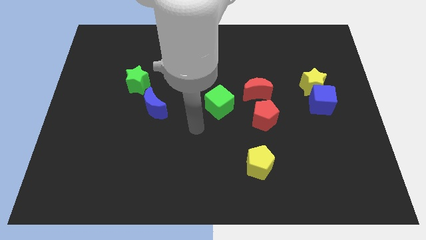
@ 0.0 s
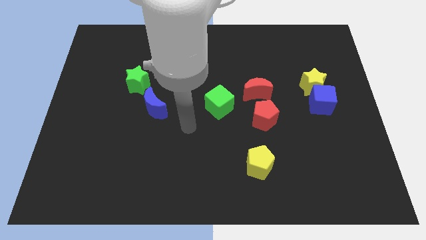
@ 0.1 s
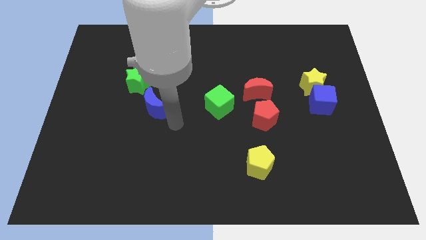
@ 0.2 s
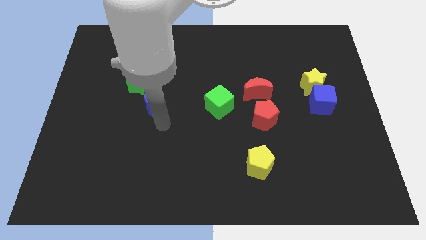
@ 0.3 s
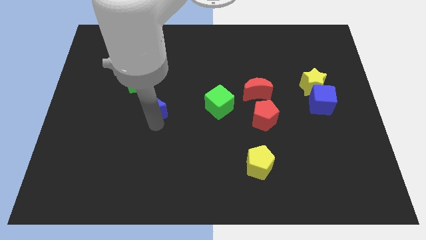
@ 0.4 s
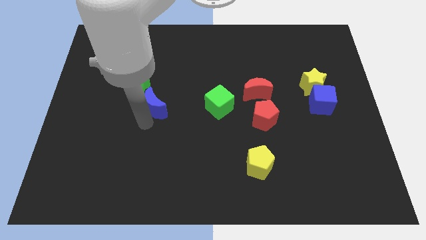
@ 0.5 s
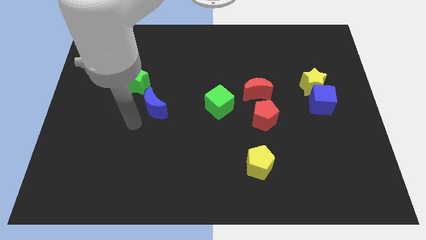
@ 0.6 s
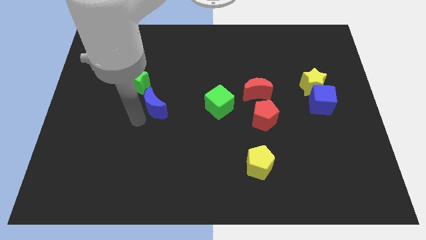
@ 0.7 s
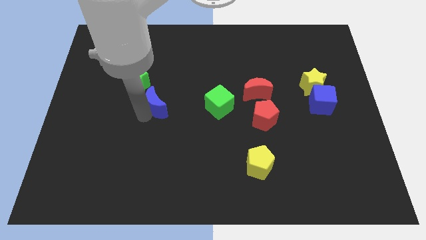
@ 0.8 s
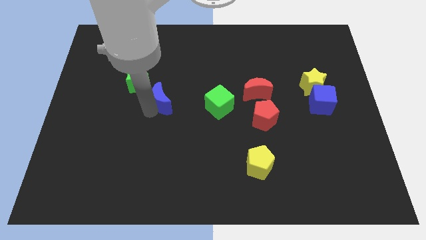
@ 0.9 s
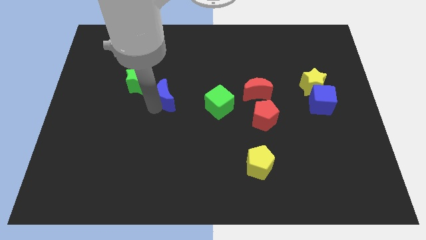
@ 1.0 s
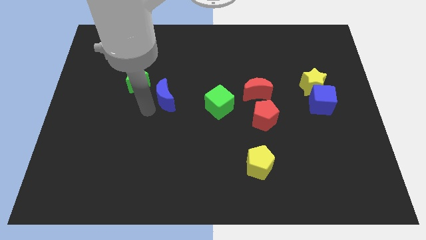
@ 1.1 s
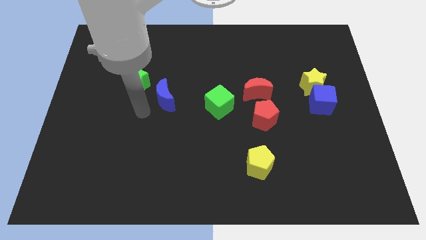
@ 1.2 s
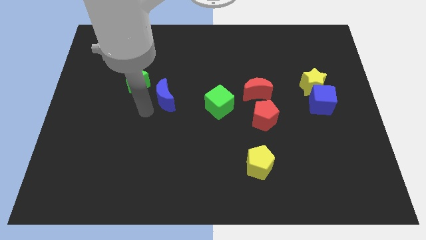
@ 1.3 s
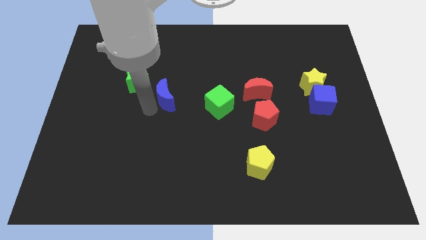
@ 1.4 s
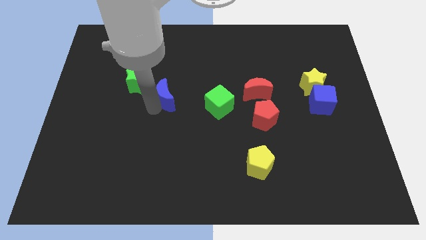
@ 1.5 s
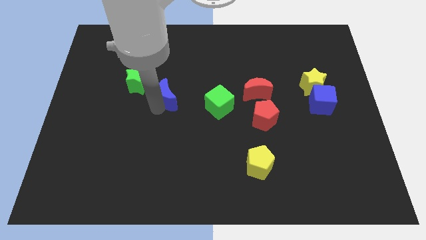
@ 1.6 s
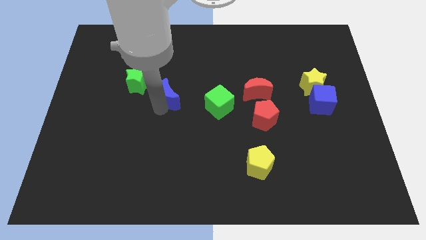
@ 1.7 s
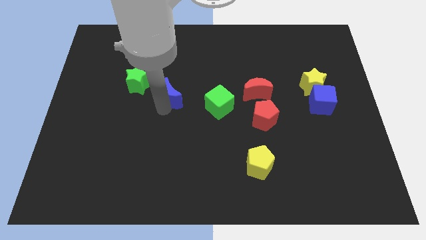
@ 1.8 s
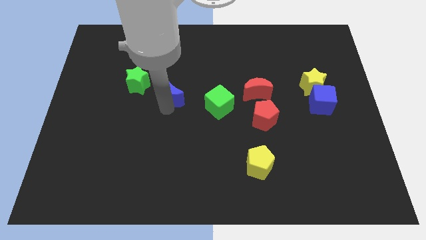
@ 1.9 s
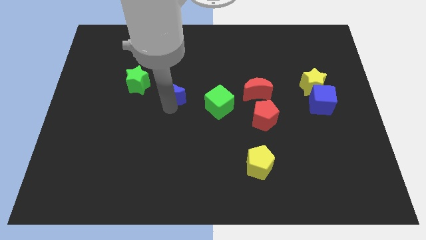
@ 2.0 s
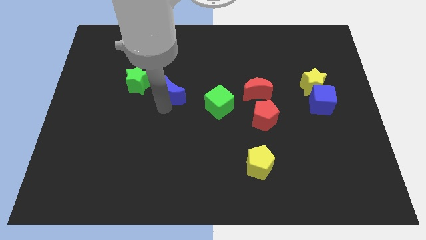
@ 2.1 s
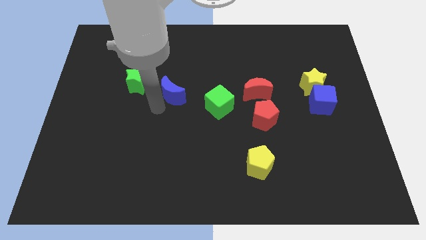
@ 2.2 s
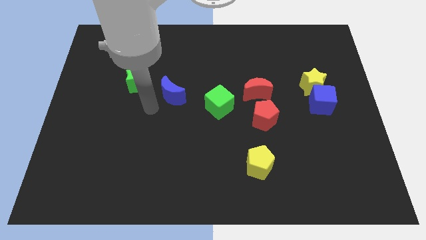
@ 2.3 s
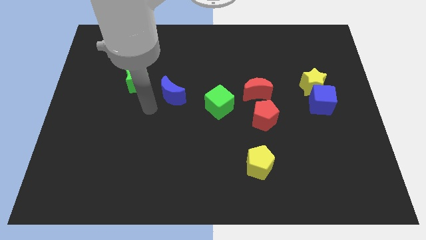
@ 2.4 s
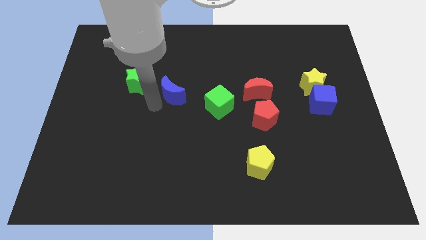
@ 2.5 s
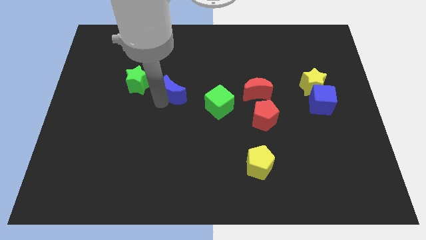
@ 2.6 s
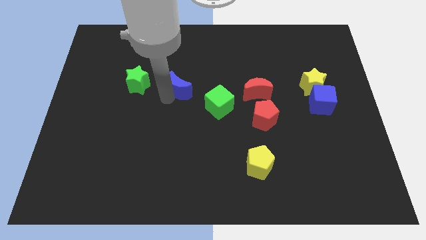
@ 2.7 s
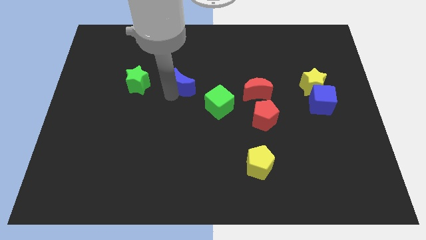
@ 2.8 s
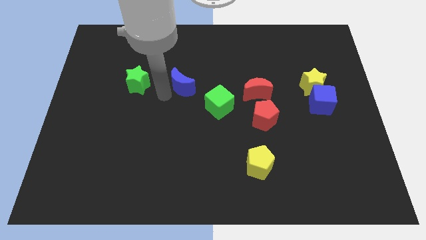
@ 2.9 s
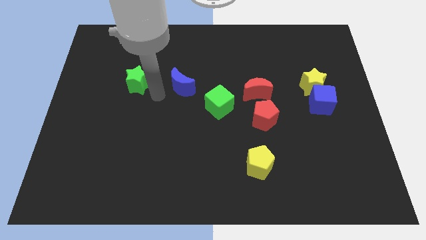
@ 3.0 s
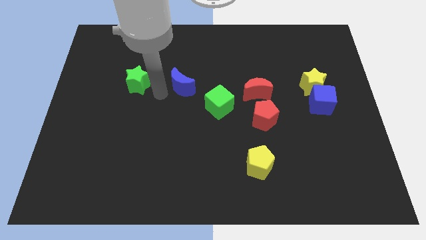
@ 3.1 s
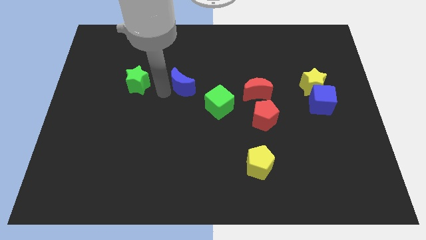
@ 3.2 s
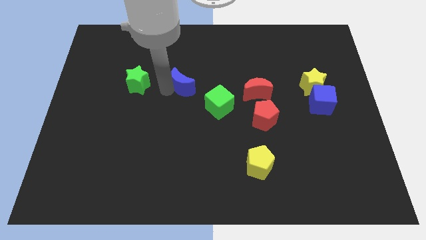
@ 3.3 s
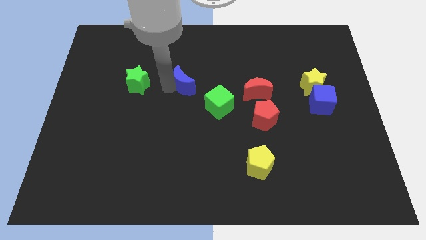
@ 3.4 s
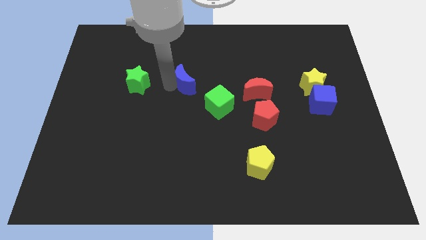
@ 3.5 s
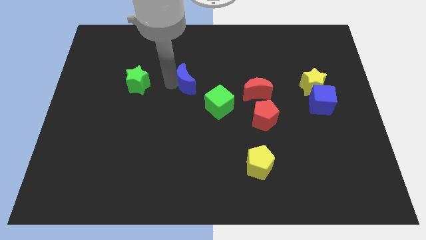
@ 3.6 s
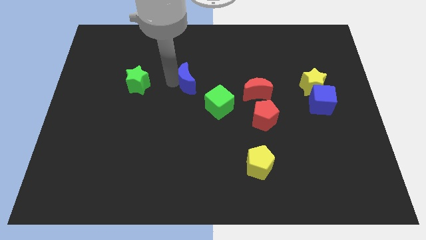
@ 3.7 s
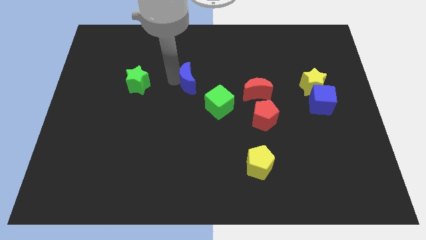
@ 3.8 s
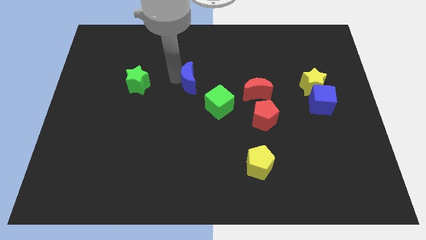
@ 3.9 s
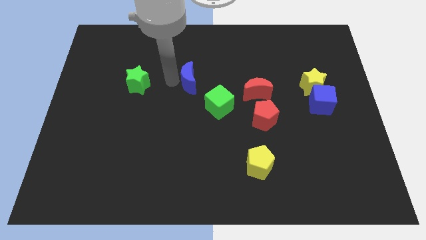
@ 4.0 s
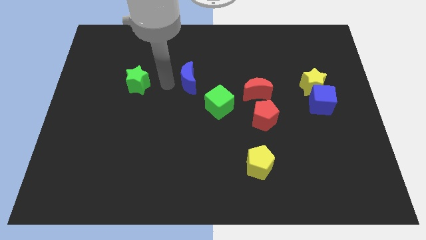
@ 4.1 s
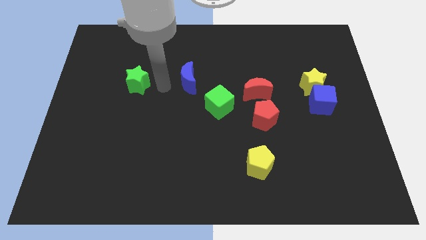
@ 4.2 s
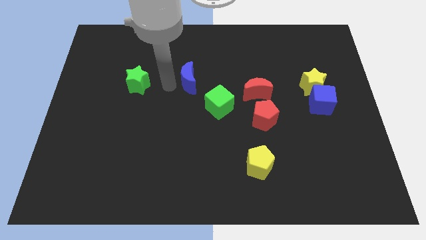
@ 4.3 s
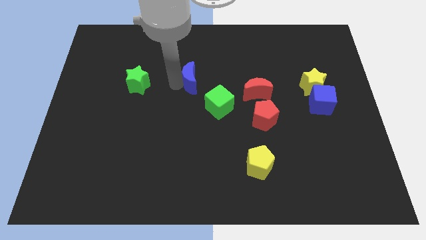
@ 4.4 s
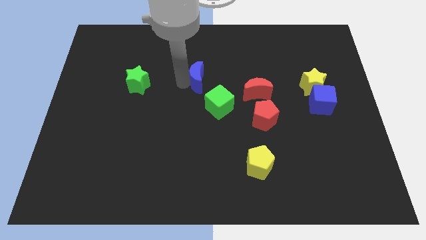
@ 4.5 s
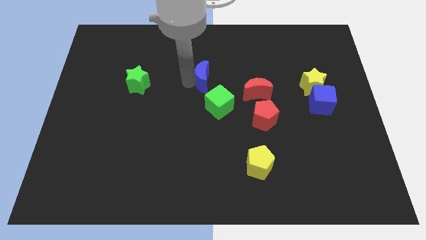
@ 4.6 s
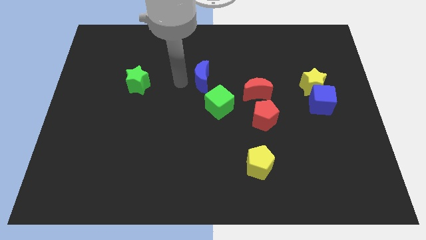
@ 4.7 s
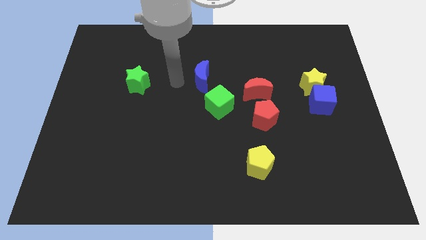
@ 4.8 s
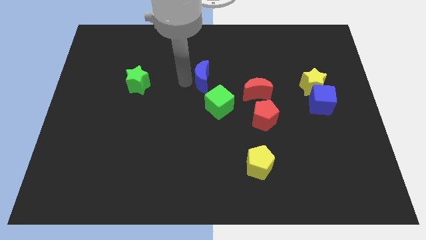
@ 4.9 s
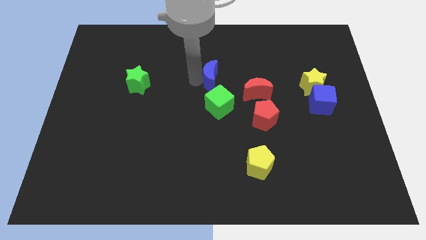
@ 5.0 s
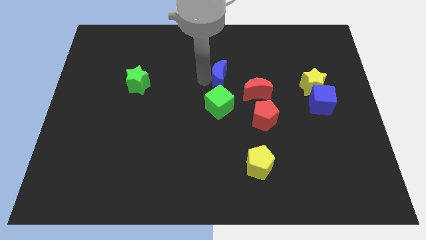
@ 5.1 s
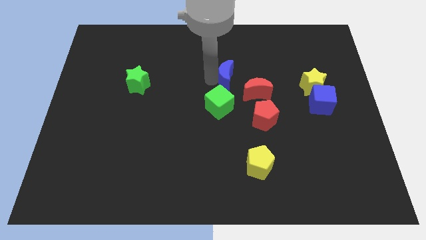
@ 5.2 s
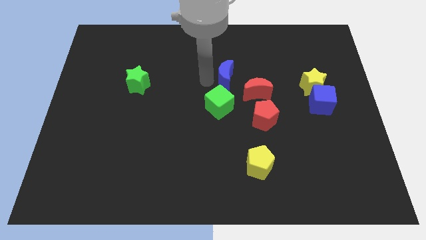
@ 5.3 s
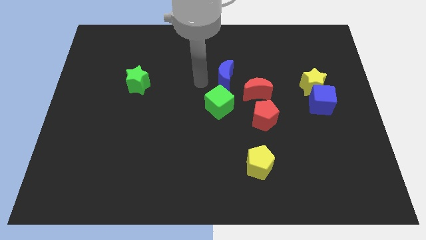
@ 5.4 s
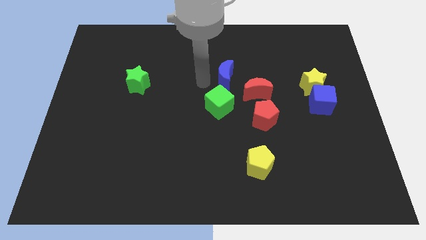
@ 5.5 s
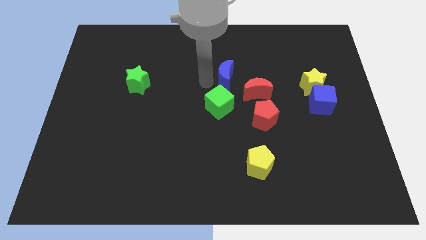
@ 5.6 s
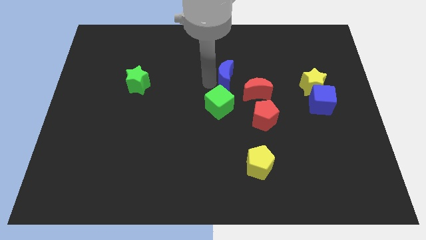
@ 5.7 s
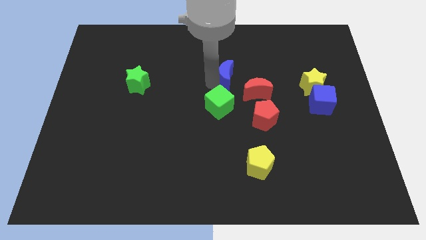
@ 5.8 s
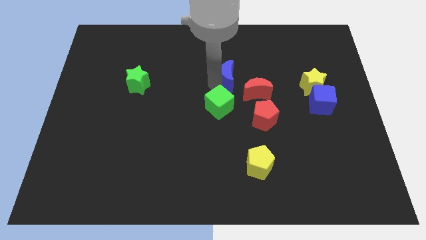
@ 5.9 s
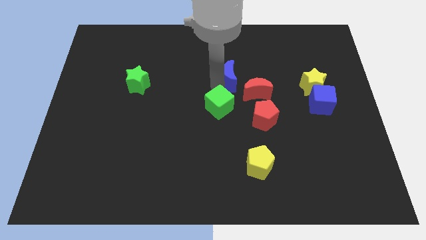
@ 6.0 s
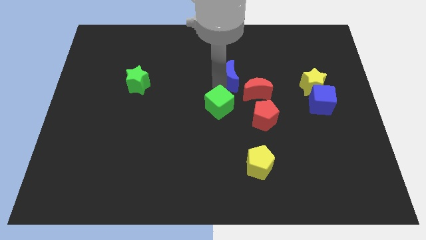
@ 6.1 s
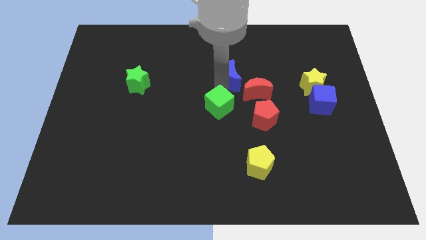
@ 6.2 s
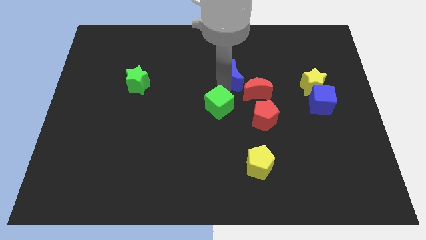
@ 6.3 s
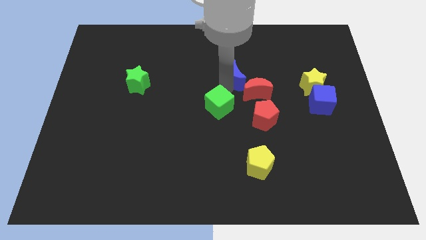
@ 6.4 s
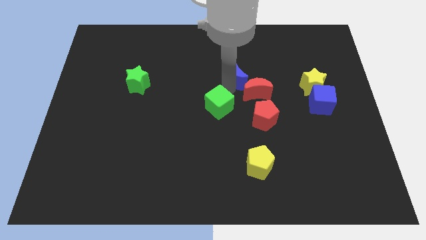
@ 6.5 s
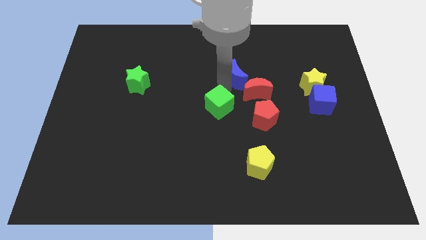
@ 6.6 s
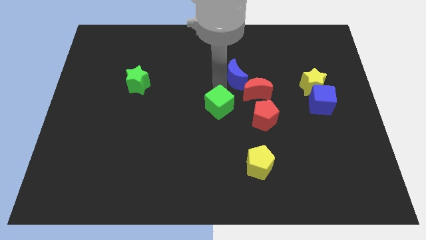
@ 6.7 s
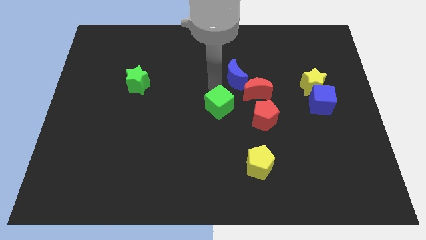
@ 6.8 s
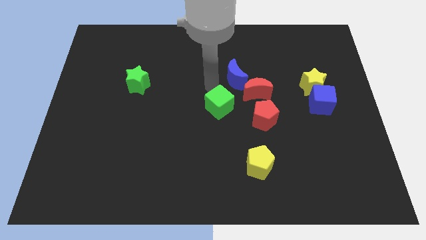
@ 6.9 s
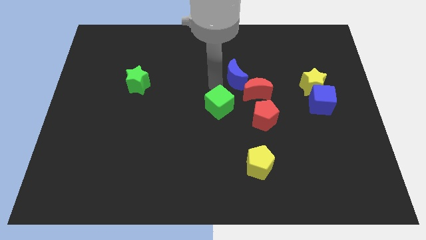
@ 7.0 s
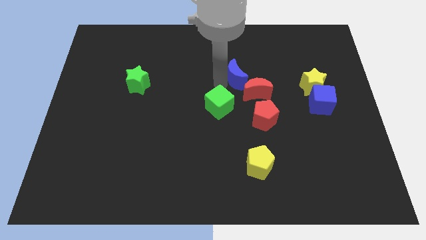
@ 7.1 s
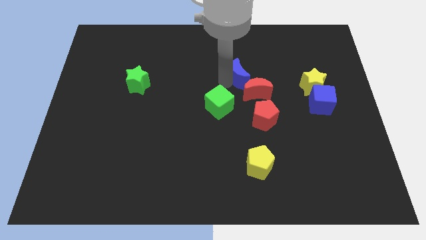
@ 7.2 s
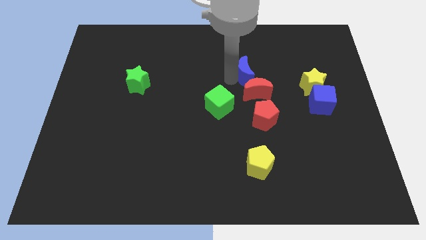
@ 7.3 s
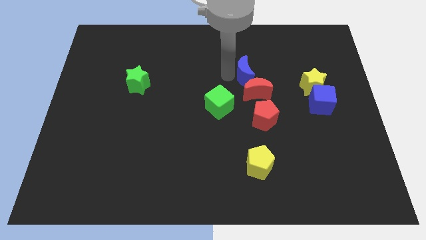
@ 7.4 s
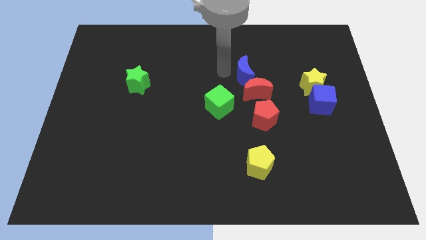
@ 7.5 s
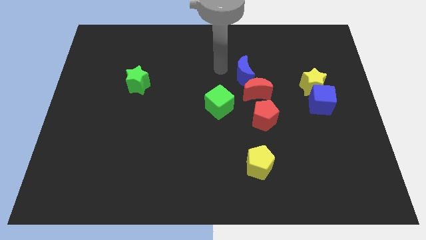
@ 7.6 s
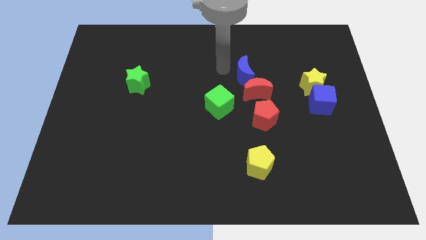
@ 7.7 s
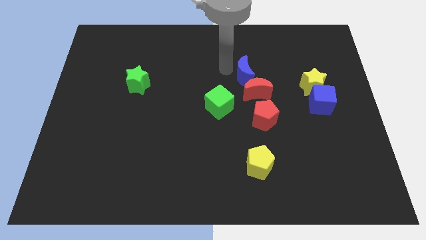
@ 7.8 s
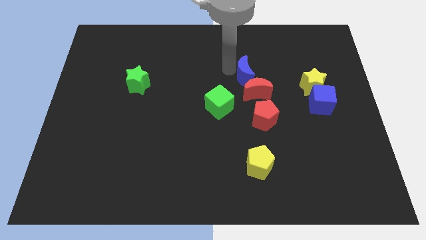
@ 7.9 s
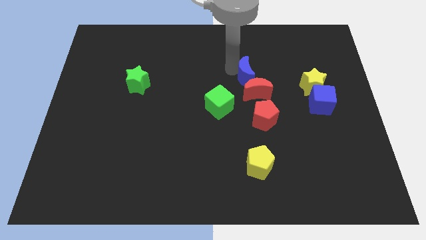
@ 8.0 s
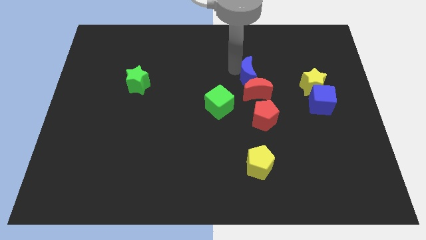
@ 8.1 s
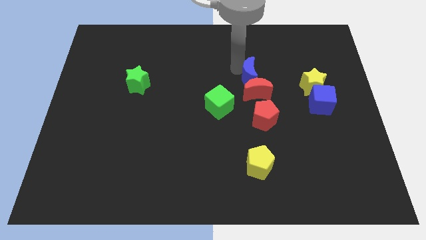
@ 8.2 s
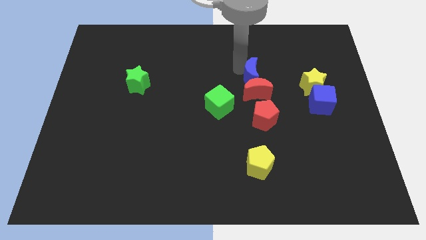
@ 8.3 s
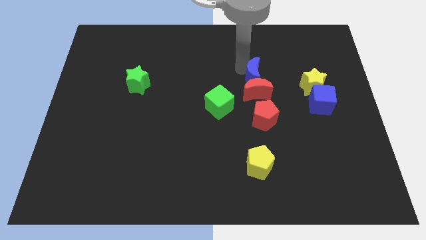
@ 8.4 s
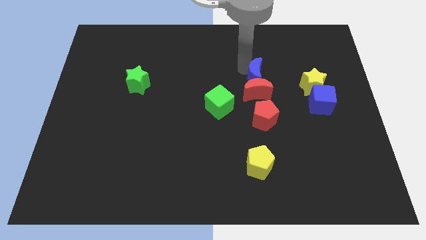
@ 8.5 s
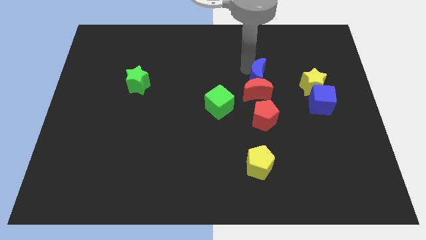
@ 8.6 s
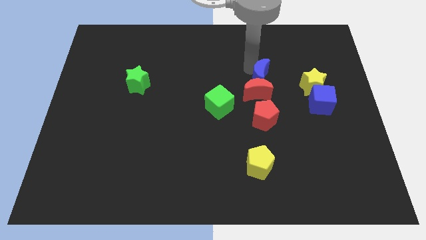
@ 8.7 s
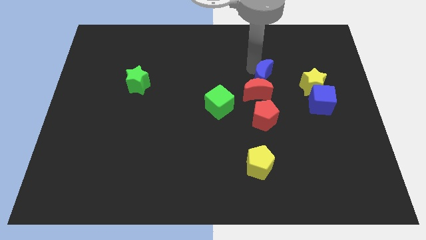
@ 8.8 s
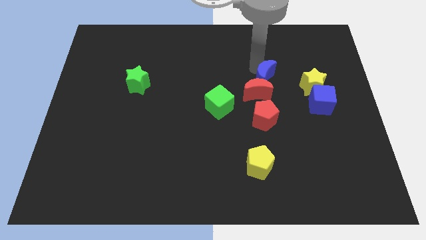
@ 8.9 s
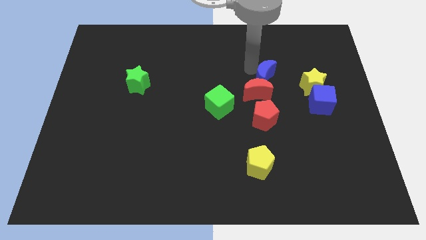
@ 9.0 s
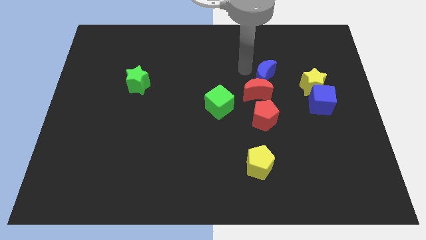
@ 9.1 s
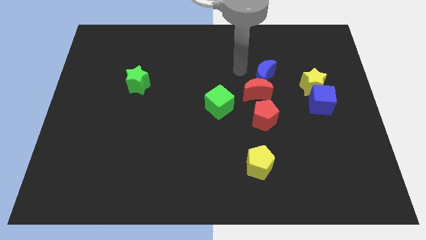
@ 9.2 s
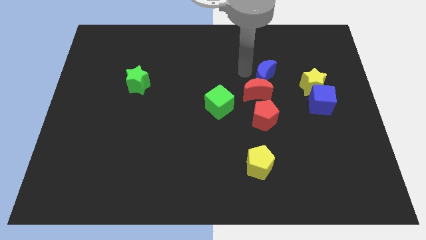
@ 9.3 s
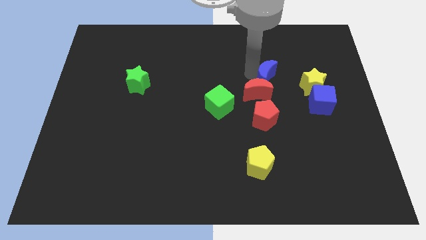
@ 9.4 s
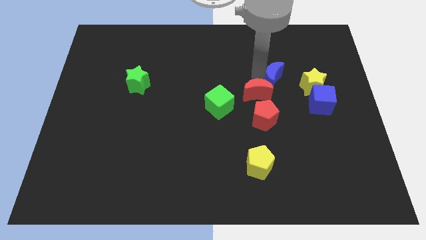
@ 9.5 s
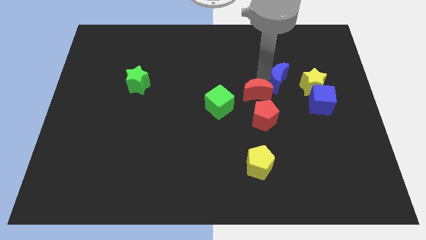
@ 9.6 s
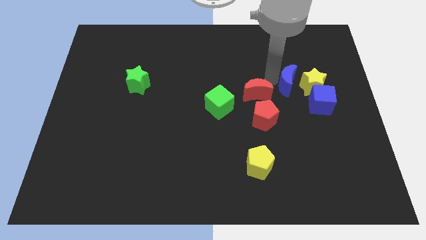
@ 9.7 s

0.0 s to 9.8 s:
move the blue moon towards the yellow star
